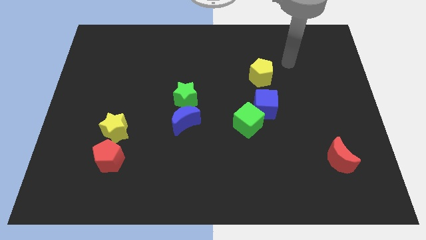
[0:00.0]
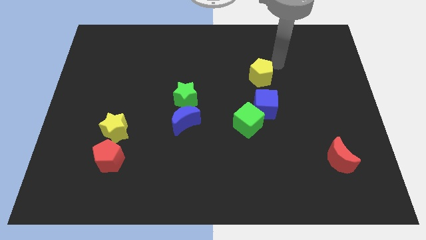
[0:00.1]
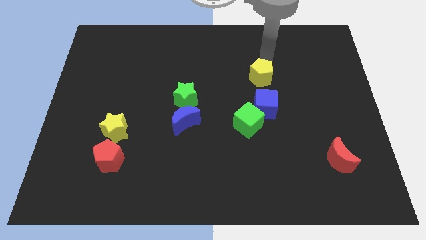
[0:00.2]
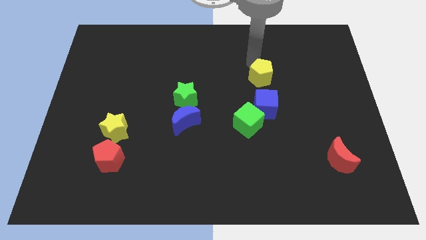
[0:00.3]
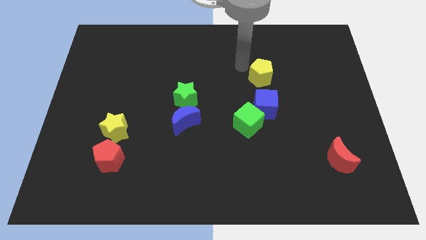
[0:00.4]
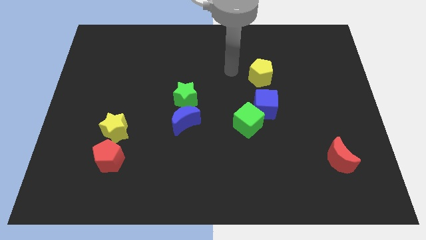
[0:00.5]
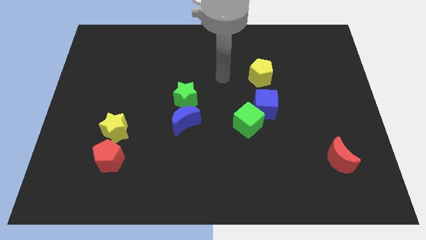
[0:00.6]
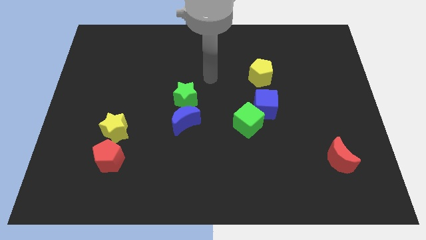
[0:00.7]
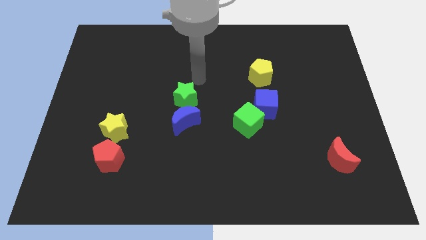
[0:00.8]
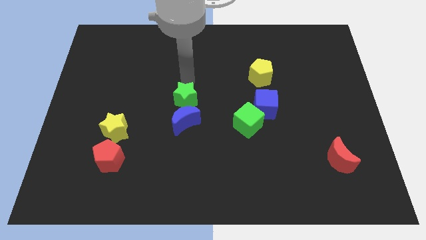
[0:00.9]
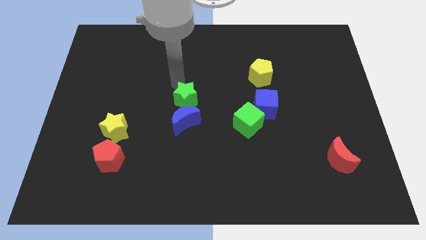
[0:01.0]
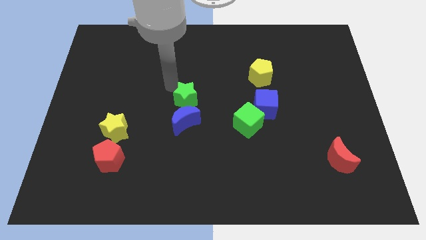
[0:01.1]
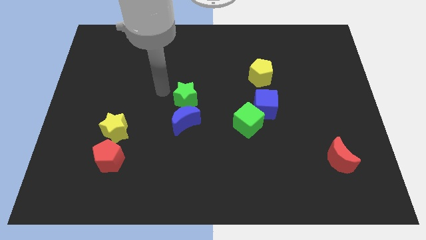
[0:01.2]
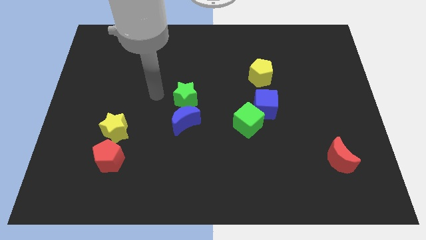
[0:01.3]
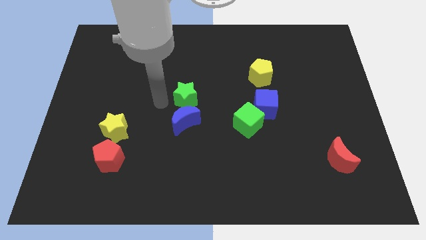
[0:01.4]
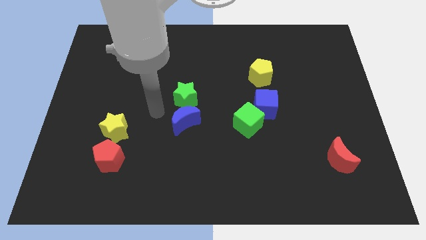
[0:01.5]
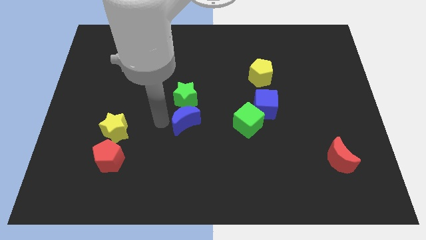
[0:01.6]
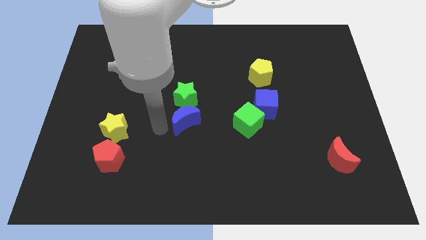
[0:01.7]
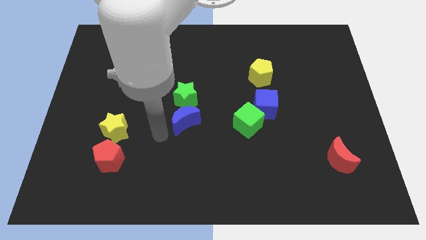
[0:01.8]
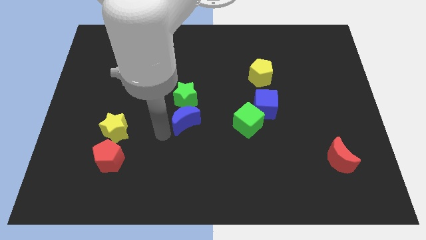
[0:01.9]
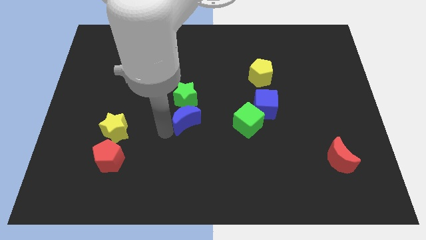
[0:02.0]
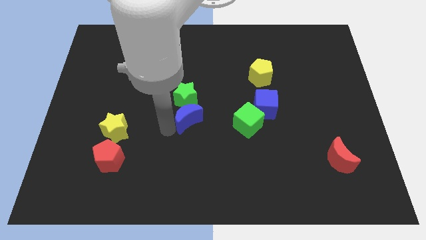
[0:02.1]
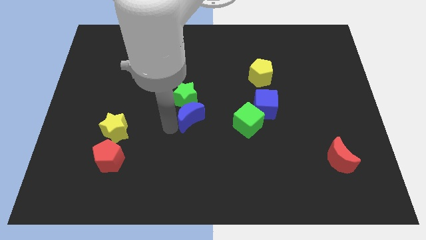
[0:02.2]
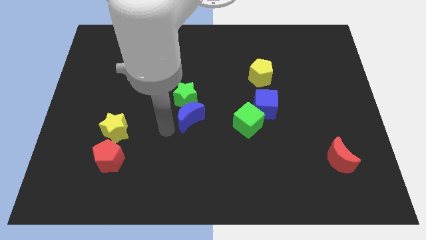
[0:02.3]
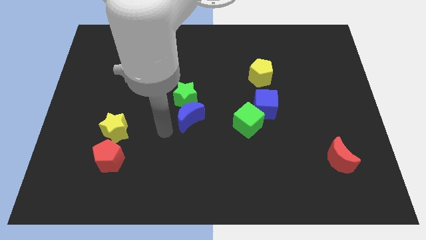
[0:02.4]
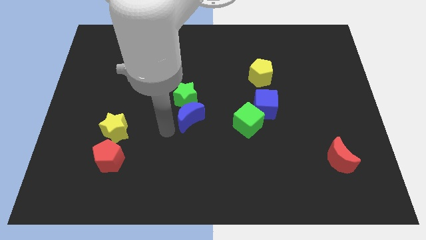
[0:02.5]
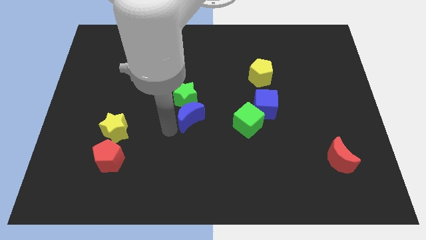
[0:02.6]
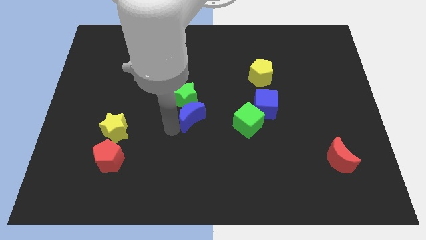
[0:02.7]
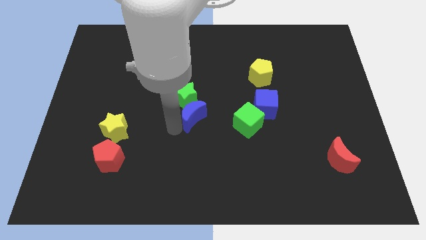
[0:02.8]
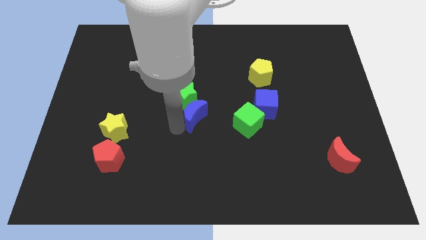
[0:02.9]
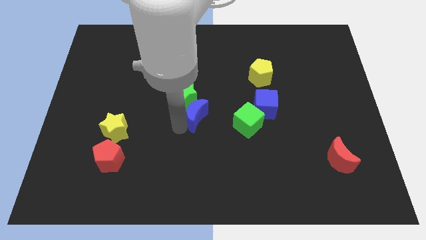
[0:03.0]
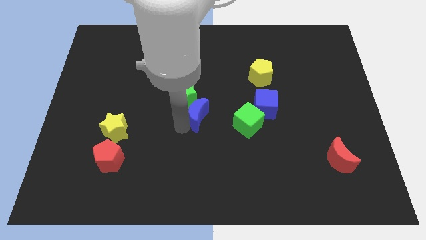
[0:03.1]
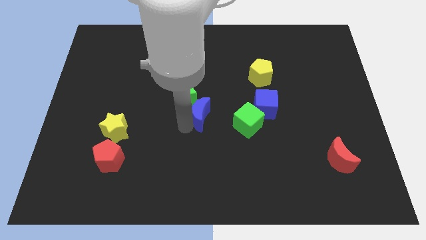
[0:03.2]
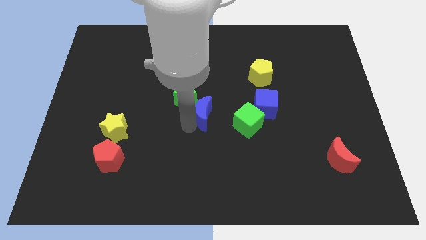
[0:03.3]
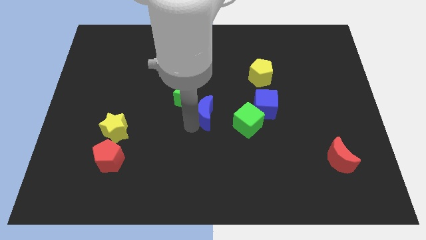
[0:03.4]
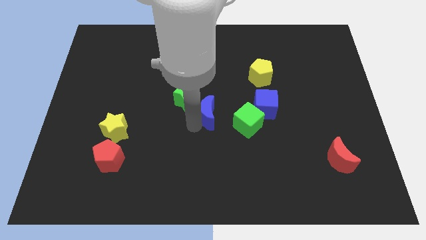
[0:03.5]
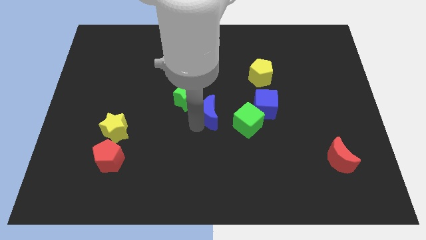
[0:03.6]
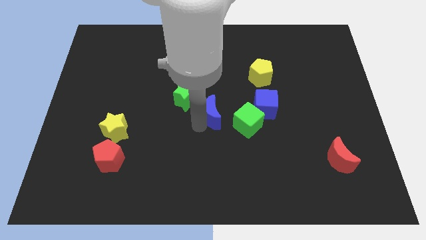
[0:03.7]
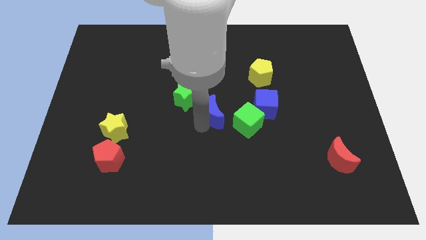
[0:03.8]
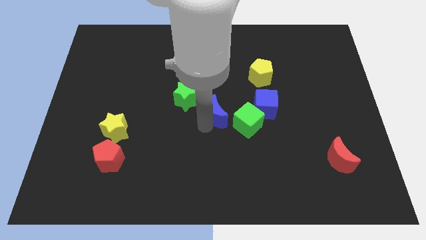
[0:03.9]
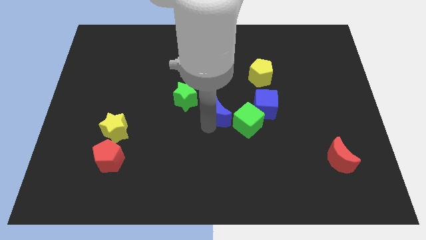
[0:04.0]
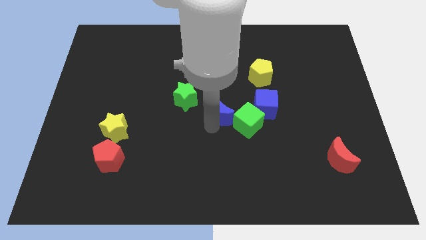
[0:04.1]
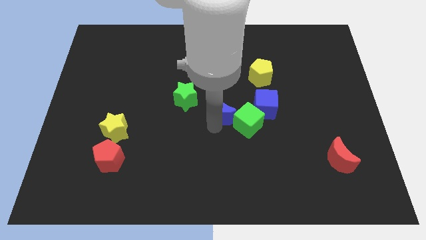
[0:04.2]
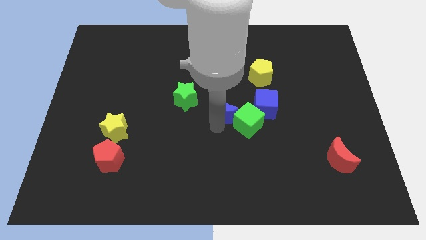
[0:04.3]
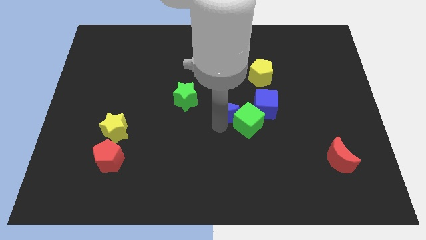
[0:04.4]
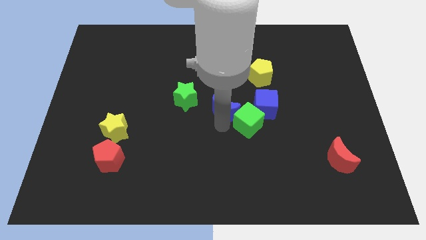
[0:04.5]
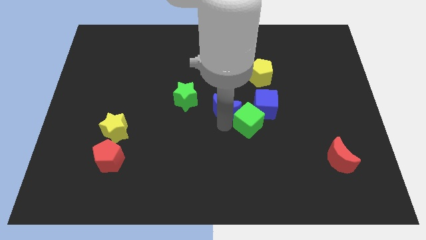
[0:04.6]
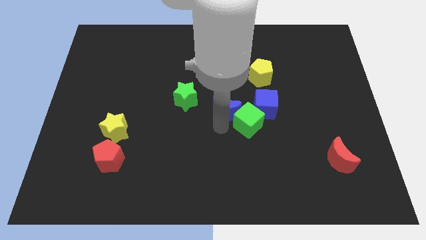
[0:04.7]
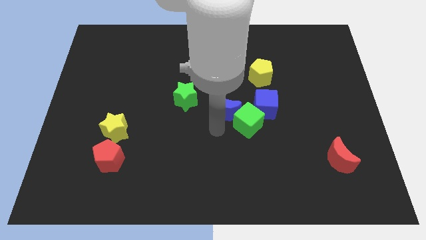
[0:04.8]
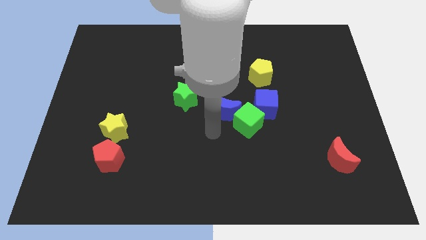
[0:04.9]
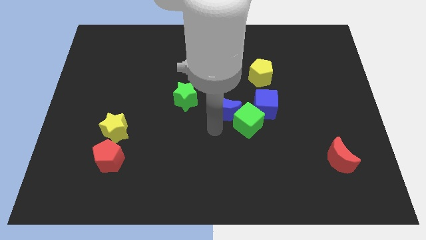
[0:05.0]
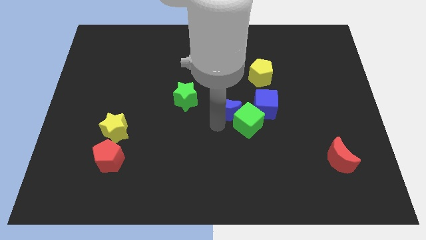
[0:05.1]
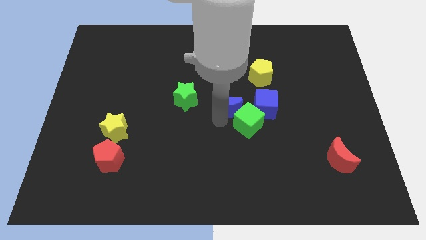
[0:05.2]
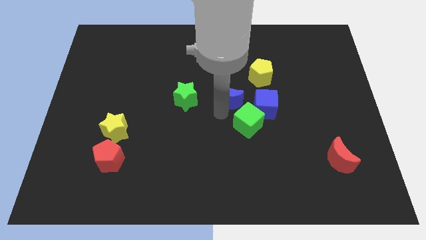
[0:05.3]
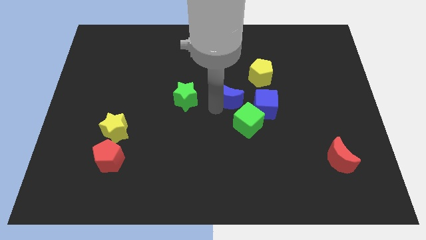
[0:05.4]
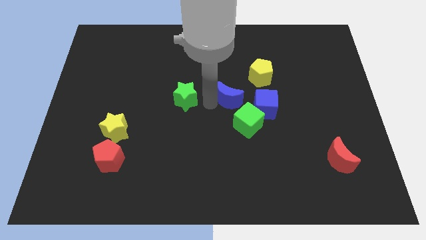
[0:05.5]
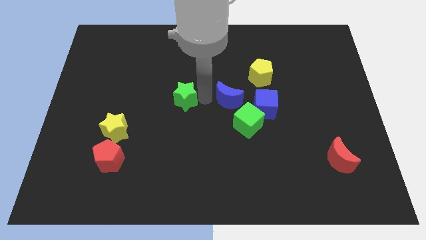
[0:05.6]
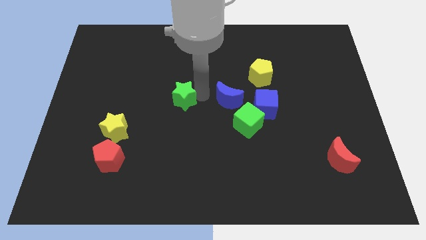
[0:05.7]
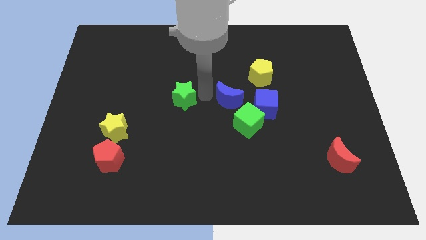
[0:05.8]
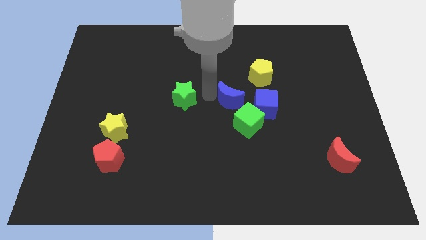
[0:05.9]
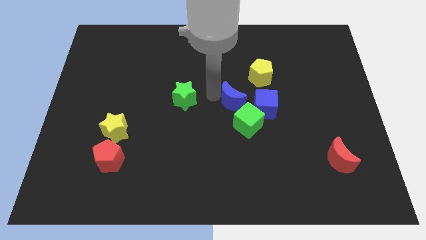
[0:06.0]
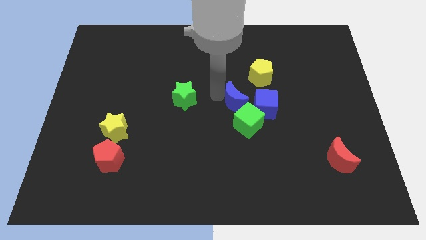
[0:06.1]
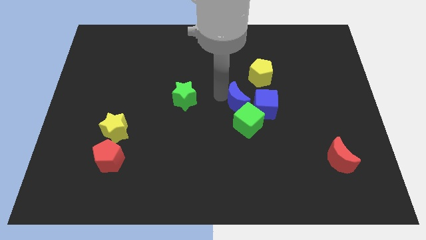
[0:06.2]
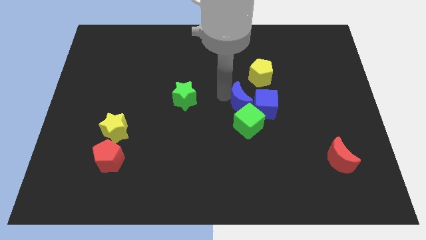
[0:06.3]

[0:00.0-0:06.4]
put the blue moon towards the blue cube
